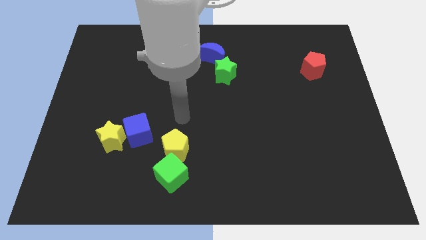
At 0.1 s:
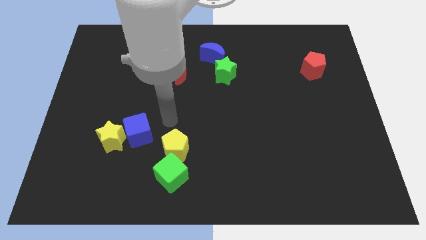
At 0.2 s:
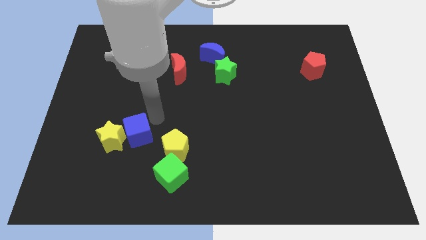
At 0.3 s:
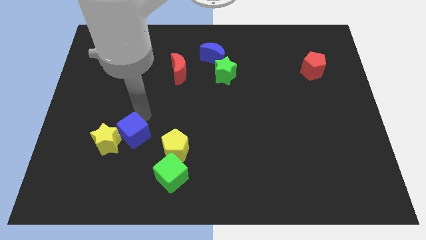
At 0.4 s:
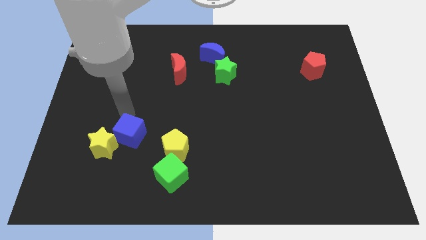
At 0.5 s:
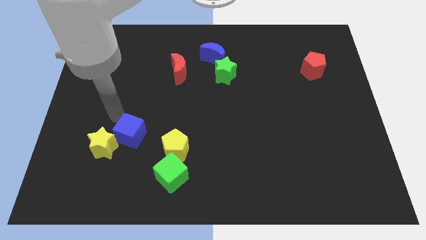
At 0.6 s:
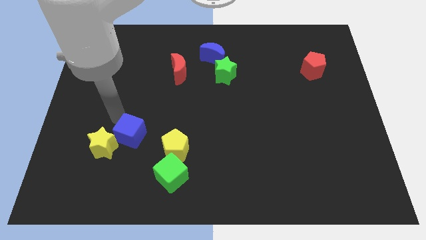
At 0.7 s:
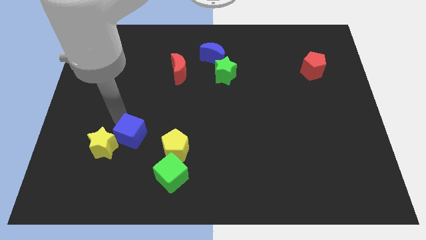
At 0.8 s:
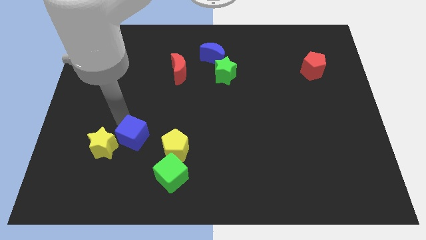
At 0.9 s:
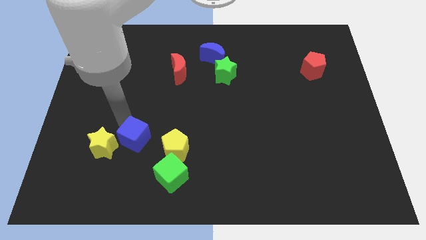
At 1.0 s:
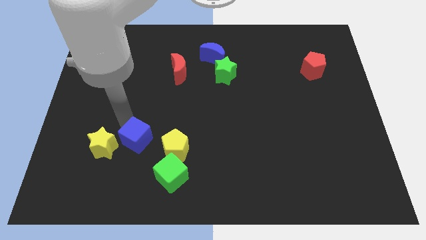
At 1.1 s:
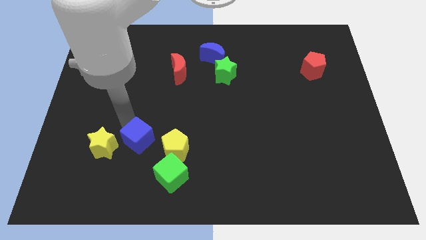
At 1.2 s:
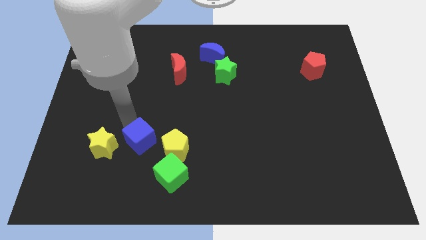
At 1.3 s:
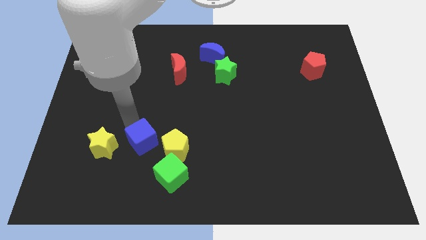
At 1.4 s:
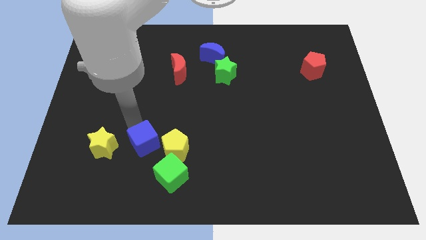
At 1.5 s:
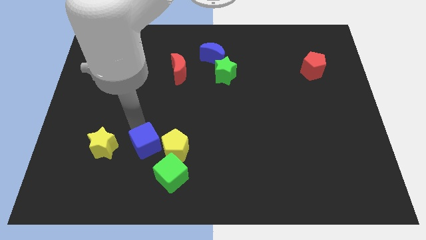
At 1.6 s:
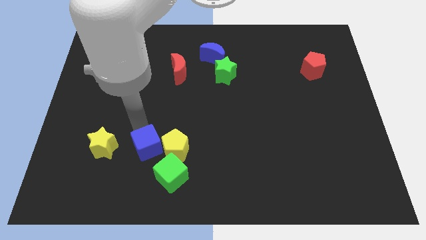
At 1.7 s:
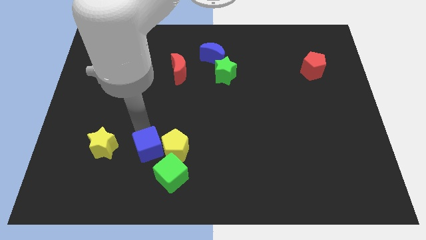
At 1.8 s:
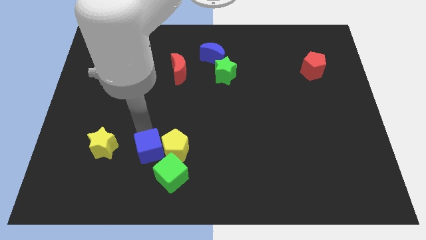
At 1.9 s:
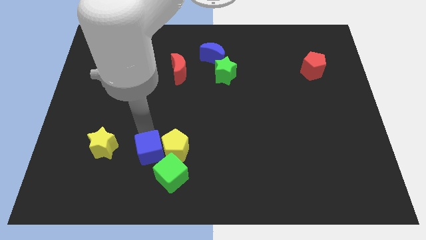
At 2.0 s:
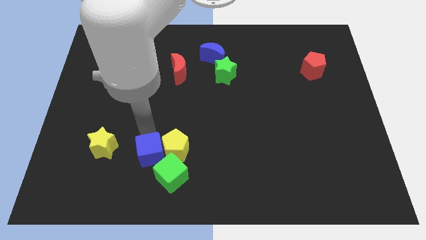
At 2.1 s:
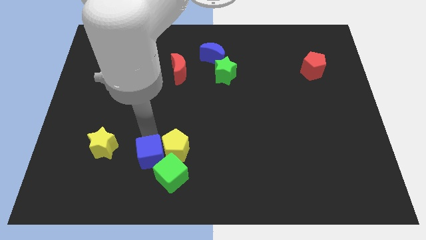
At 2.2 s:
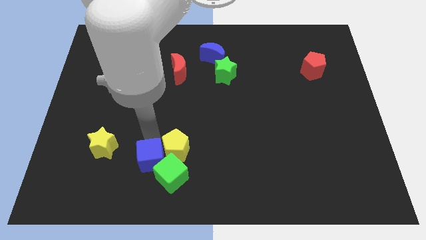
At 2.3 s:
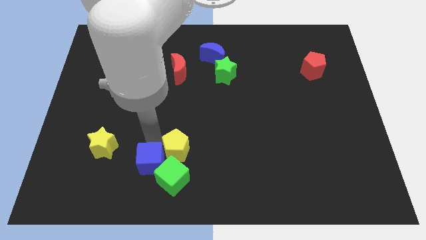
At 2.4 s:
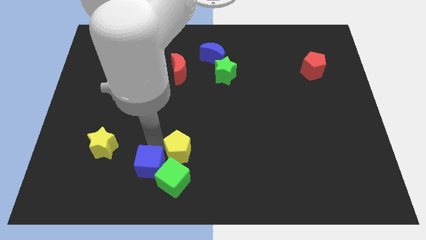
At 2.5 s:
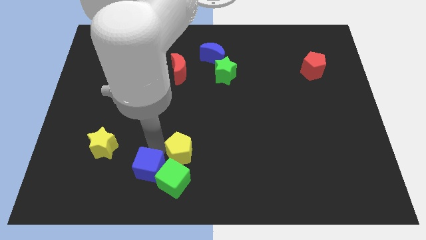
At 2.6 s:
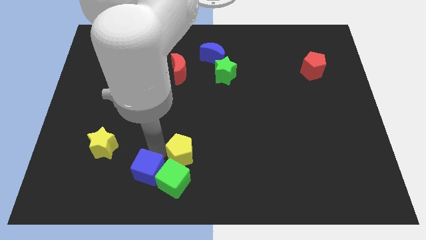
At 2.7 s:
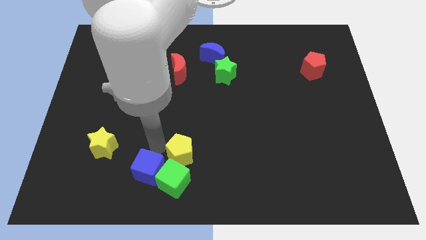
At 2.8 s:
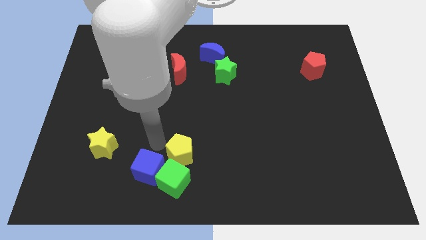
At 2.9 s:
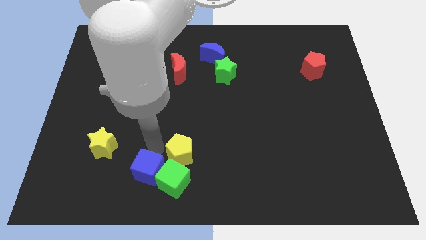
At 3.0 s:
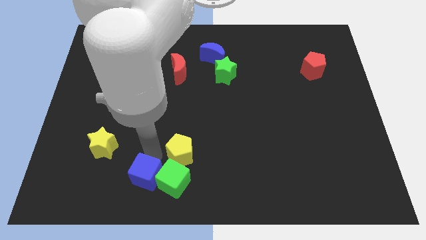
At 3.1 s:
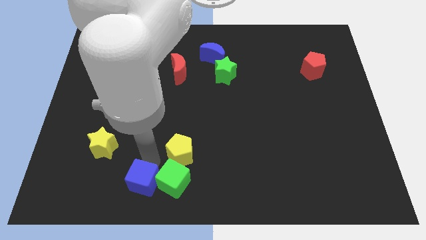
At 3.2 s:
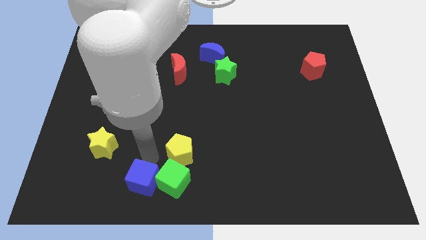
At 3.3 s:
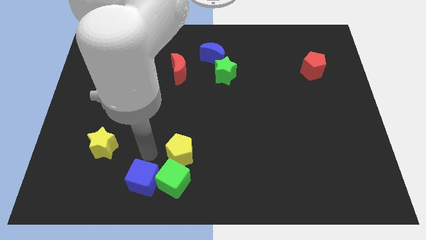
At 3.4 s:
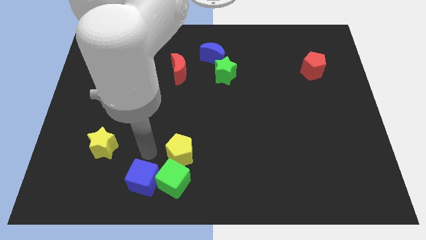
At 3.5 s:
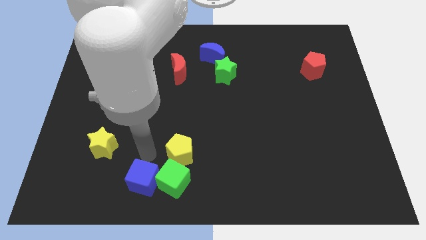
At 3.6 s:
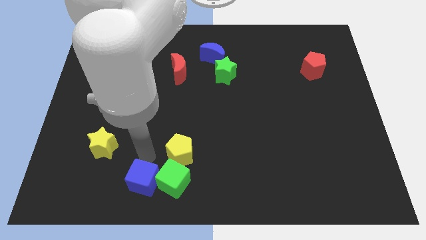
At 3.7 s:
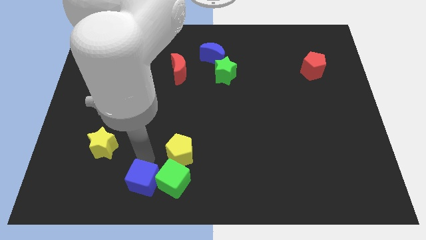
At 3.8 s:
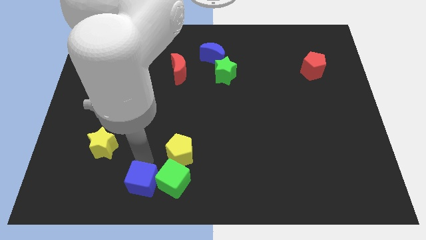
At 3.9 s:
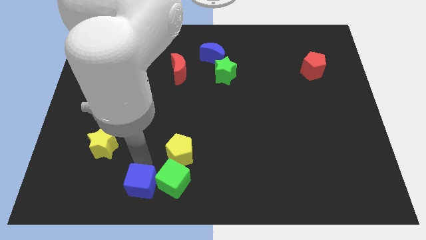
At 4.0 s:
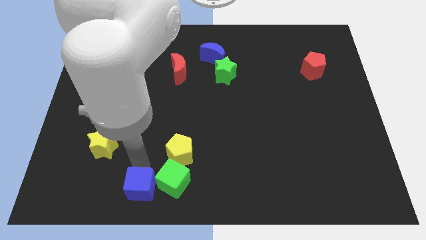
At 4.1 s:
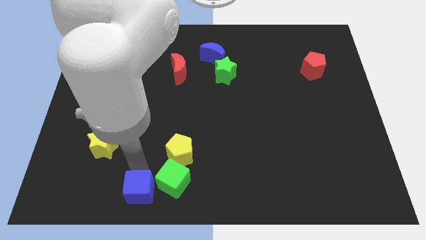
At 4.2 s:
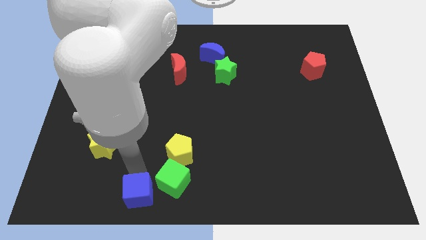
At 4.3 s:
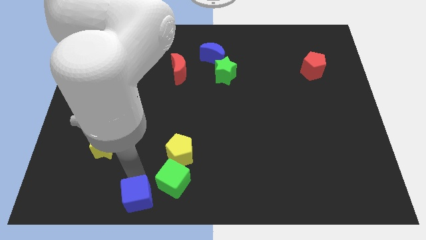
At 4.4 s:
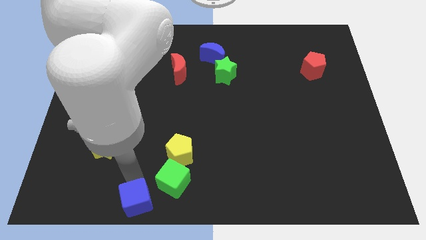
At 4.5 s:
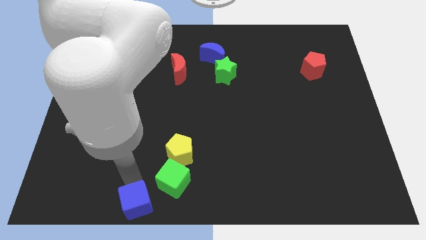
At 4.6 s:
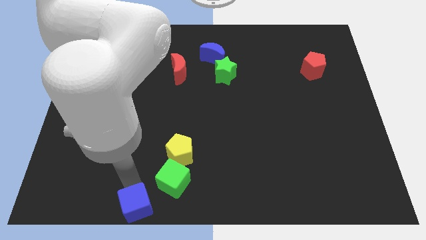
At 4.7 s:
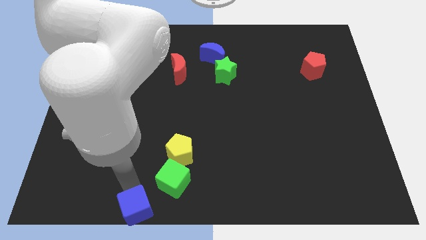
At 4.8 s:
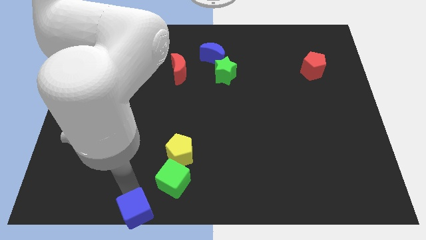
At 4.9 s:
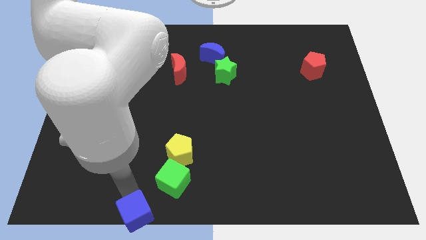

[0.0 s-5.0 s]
move the blue cube to the bottom side

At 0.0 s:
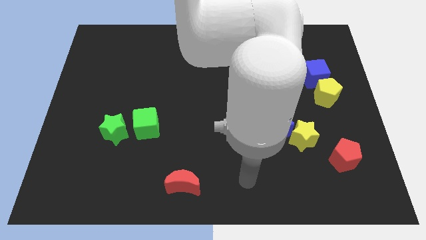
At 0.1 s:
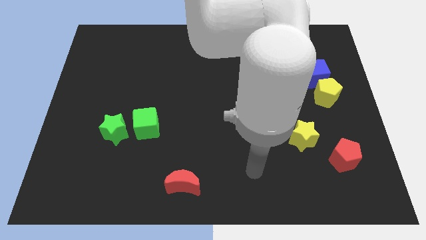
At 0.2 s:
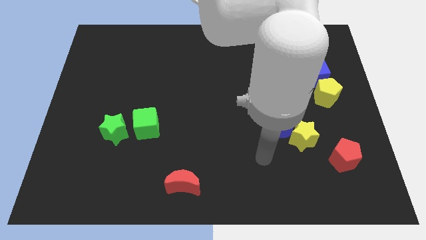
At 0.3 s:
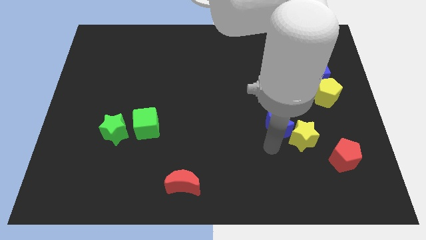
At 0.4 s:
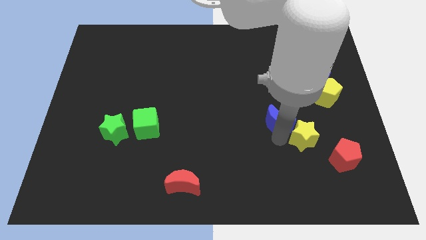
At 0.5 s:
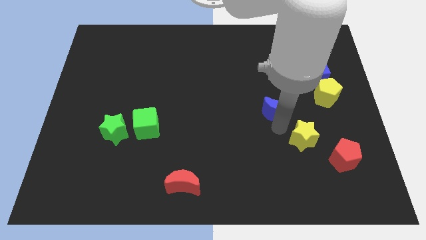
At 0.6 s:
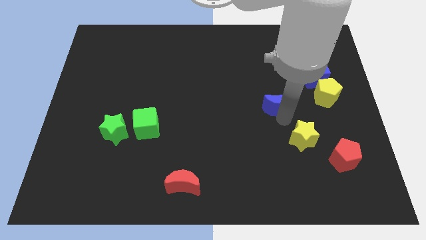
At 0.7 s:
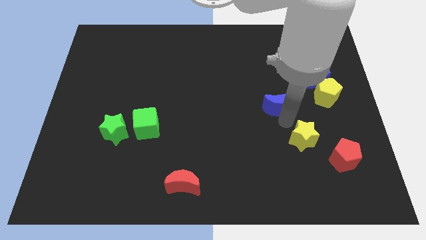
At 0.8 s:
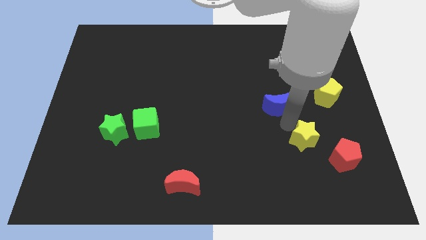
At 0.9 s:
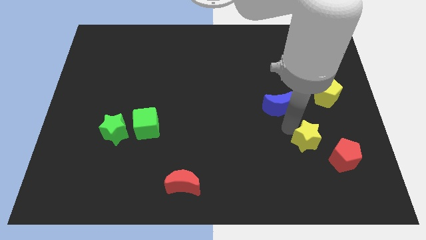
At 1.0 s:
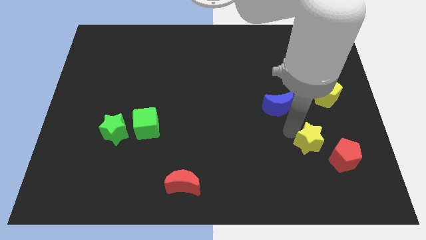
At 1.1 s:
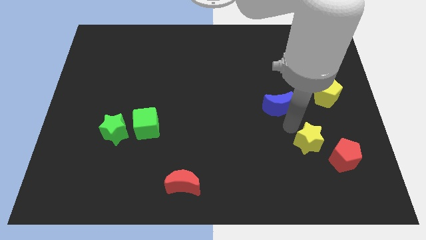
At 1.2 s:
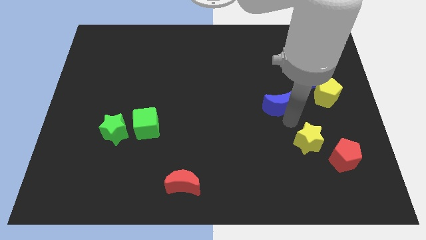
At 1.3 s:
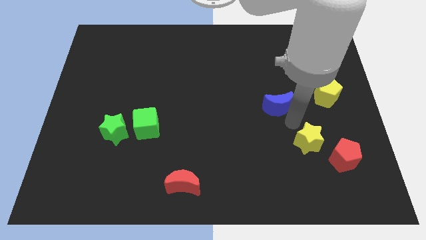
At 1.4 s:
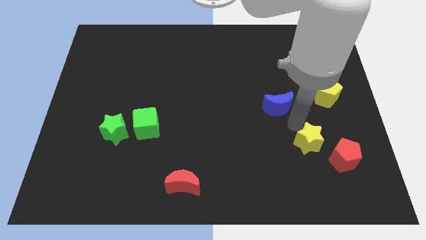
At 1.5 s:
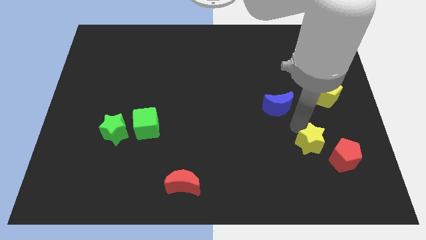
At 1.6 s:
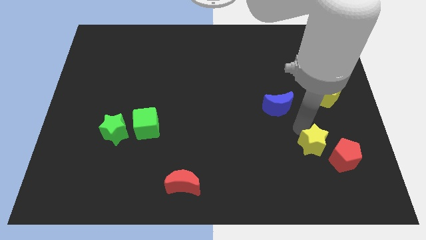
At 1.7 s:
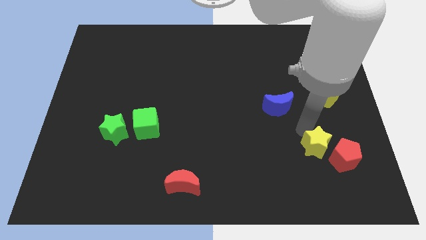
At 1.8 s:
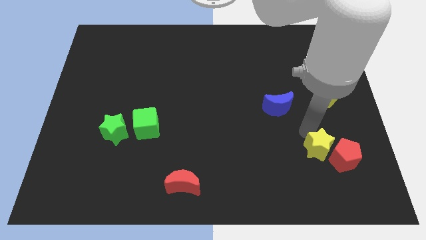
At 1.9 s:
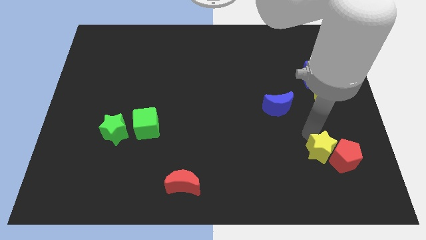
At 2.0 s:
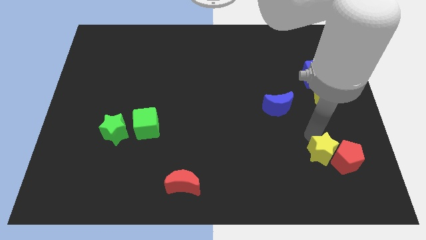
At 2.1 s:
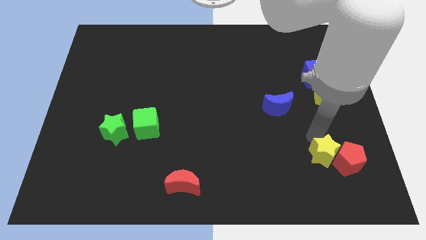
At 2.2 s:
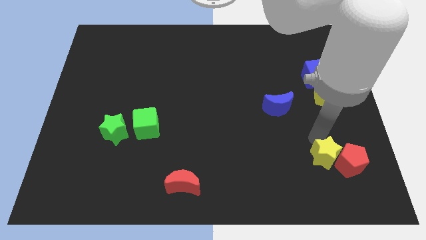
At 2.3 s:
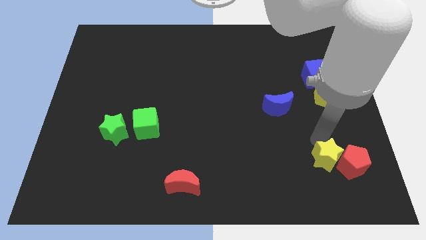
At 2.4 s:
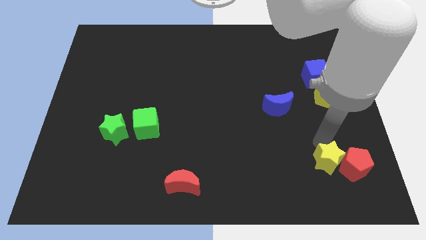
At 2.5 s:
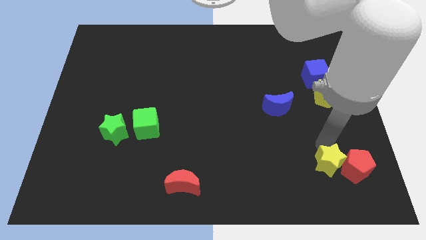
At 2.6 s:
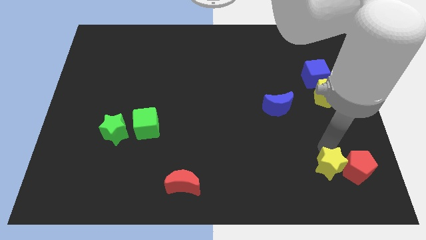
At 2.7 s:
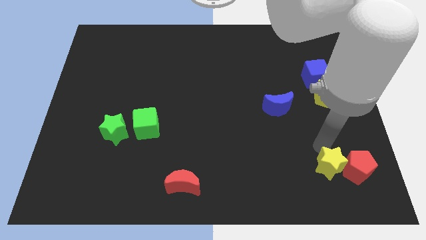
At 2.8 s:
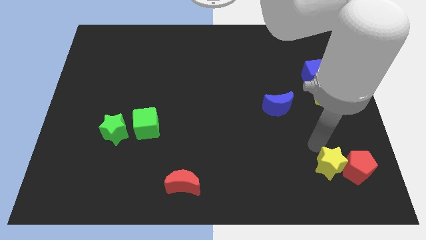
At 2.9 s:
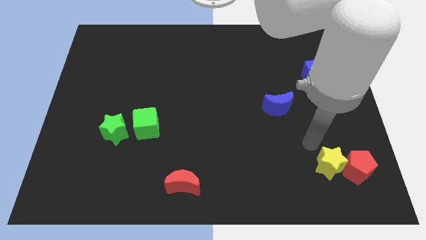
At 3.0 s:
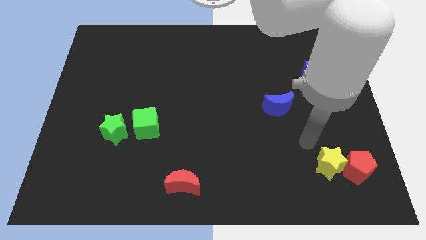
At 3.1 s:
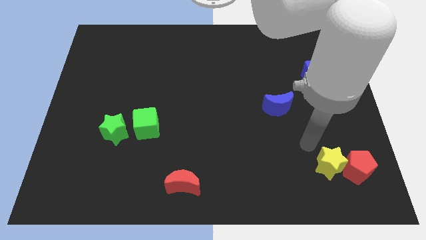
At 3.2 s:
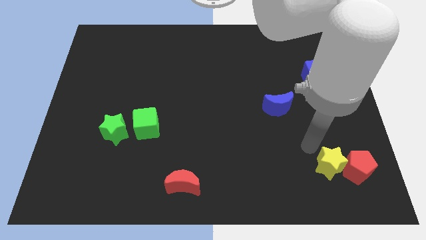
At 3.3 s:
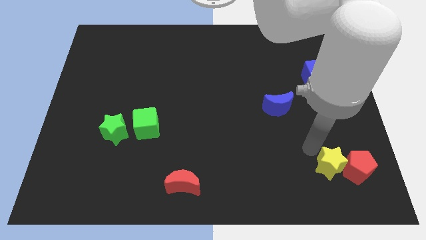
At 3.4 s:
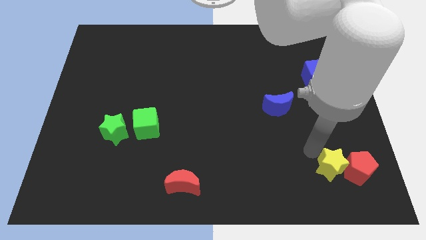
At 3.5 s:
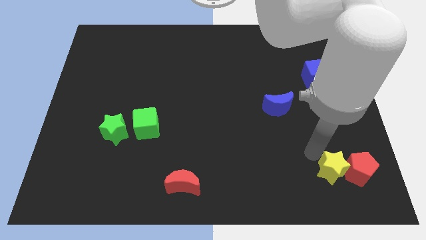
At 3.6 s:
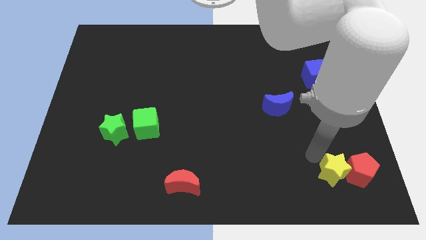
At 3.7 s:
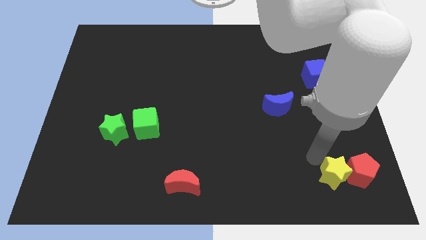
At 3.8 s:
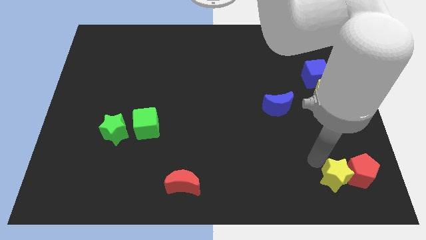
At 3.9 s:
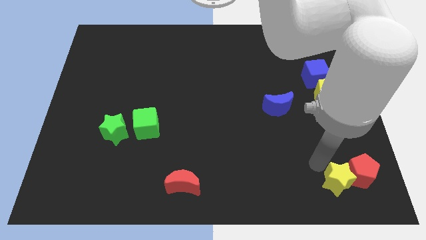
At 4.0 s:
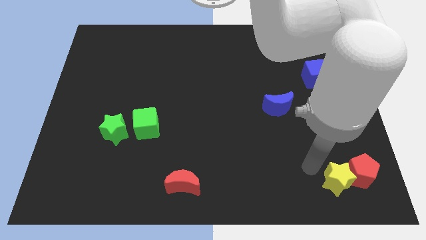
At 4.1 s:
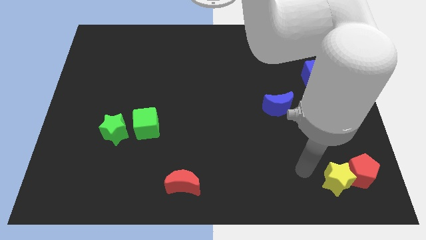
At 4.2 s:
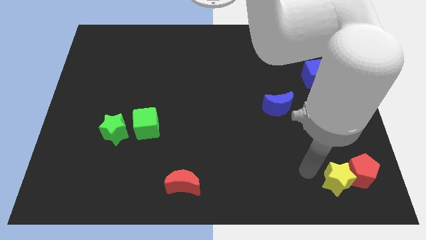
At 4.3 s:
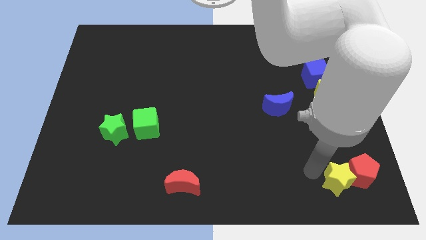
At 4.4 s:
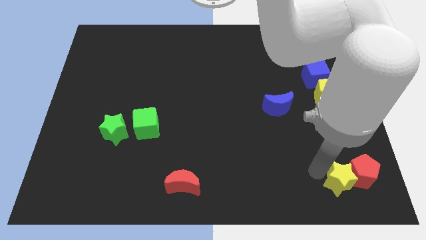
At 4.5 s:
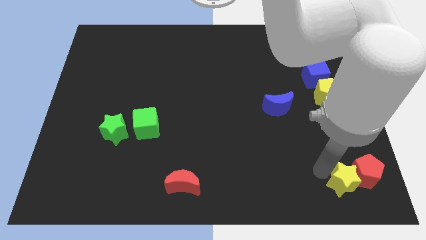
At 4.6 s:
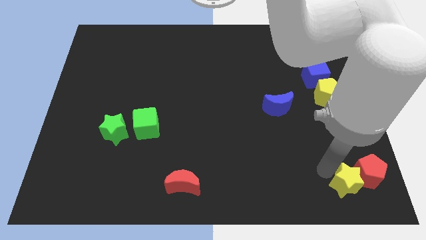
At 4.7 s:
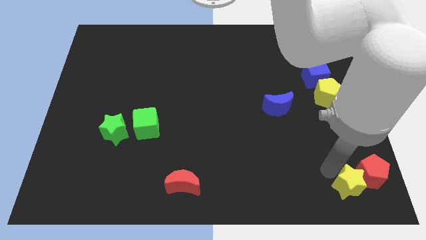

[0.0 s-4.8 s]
put the yellow star to the bottom right
